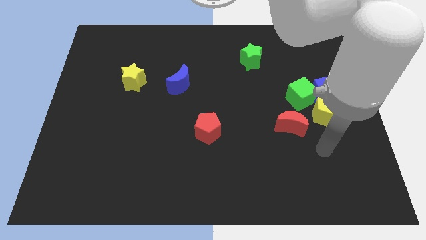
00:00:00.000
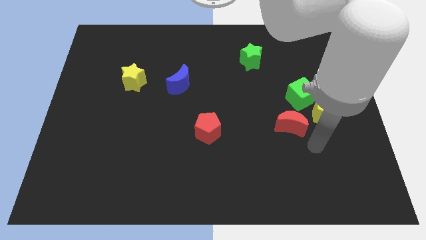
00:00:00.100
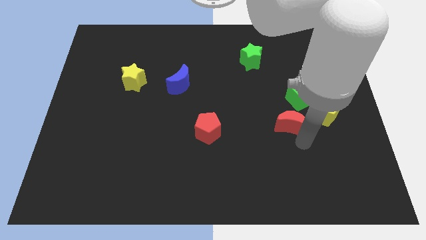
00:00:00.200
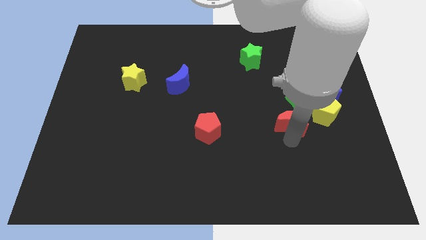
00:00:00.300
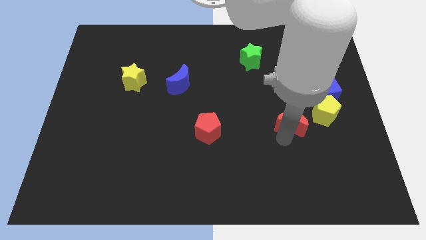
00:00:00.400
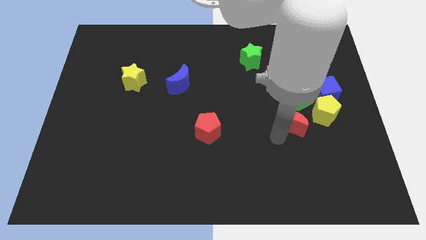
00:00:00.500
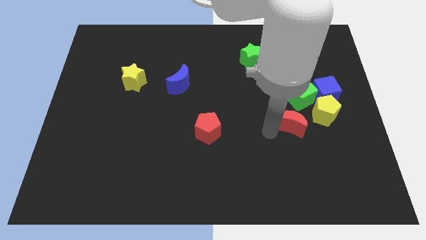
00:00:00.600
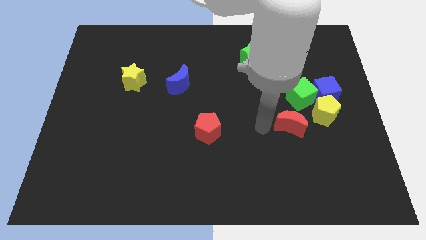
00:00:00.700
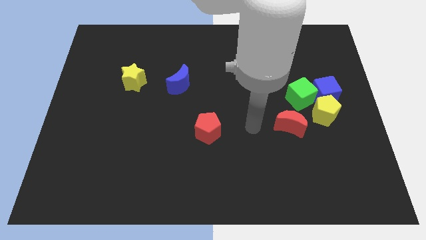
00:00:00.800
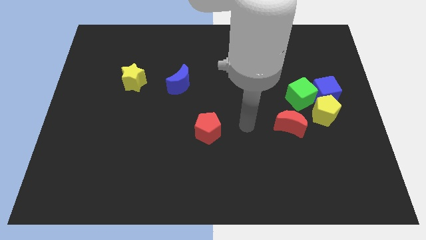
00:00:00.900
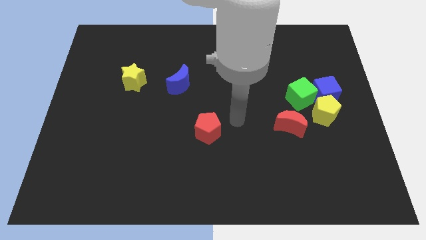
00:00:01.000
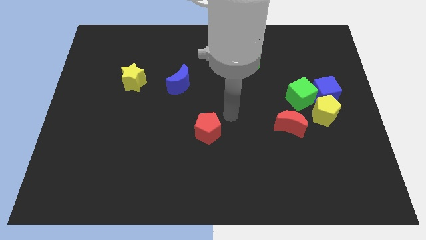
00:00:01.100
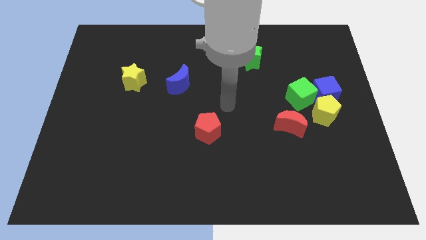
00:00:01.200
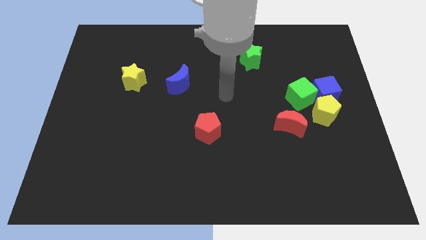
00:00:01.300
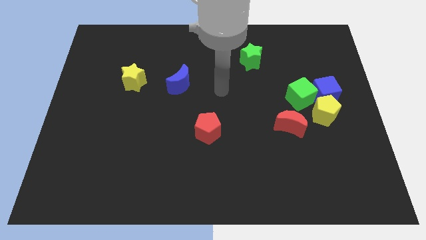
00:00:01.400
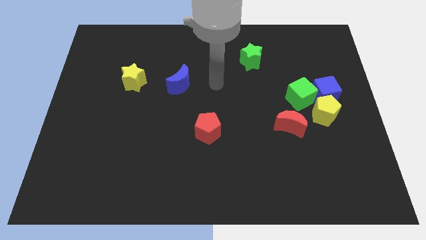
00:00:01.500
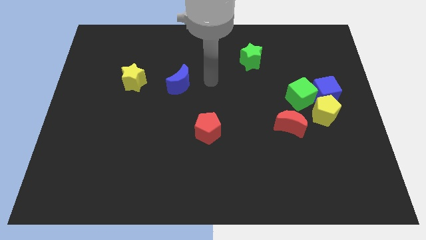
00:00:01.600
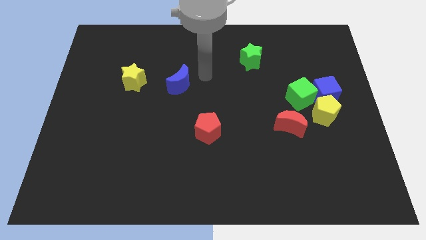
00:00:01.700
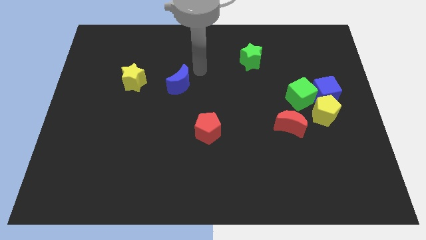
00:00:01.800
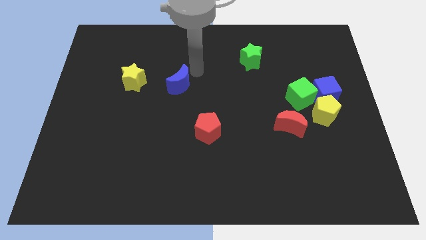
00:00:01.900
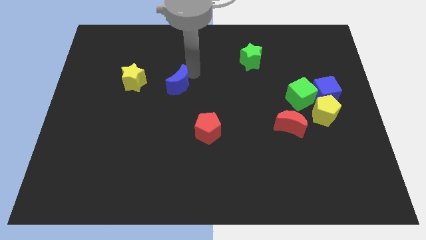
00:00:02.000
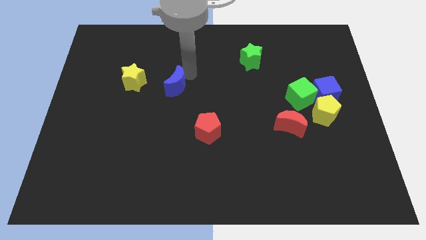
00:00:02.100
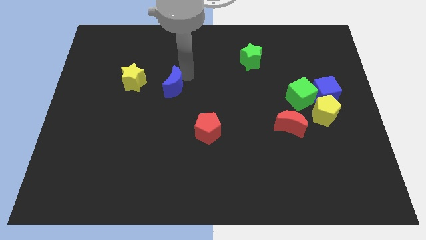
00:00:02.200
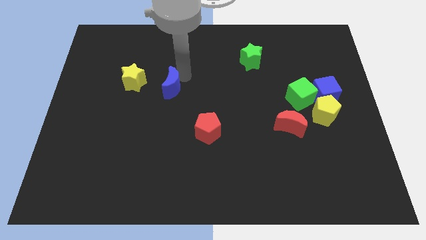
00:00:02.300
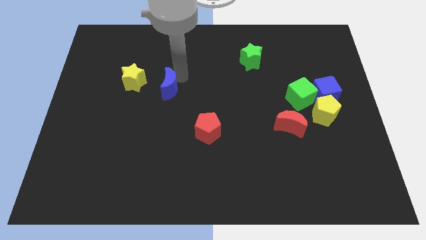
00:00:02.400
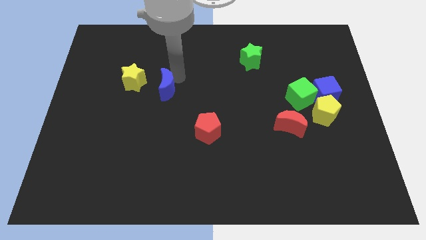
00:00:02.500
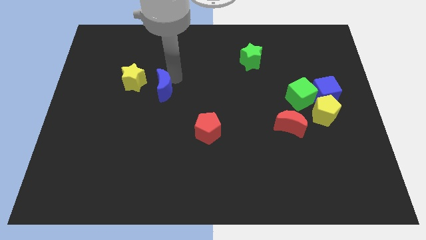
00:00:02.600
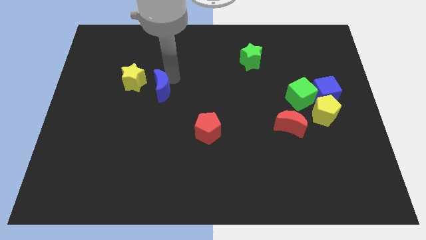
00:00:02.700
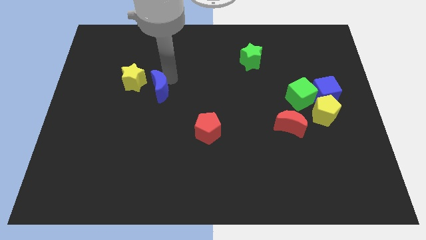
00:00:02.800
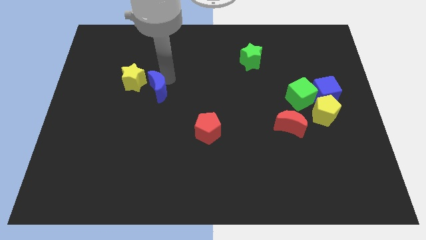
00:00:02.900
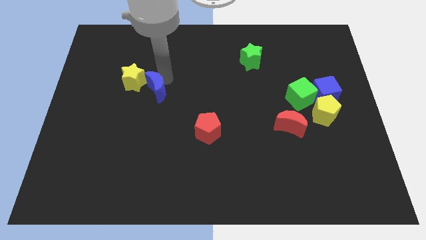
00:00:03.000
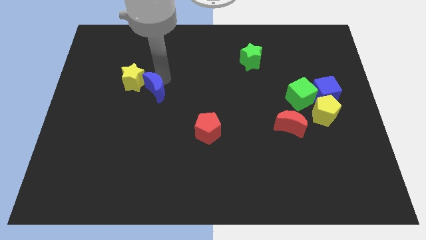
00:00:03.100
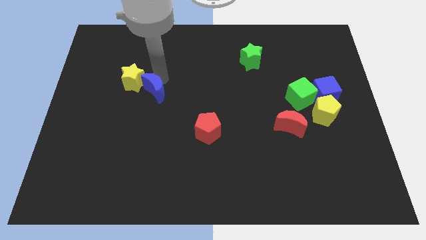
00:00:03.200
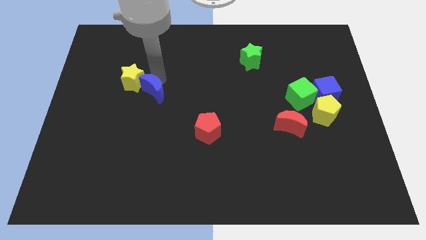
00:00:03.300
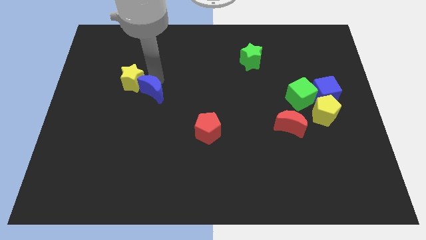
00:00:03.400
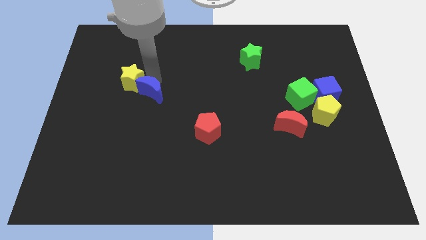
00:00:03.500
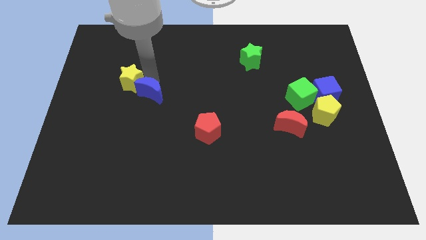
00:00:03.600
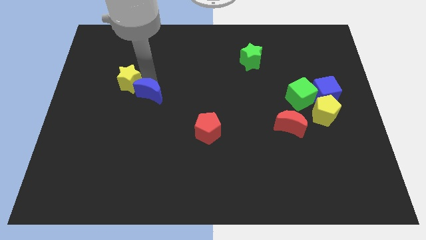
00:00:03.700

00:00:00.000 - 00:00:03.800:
slightly push the blue moon downwards and left

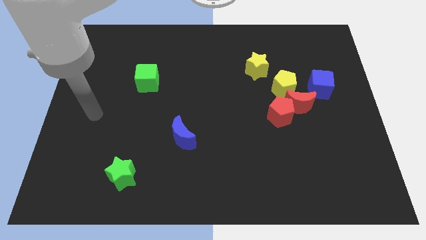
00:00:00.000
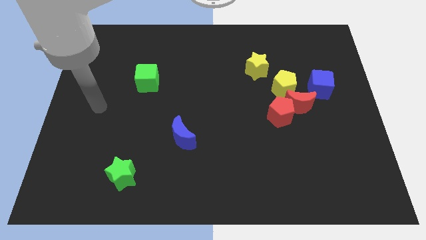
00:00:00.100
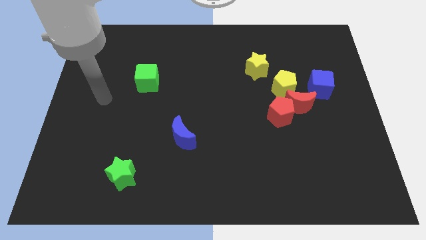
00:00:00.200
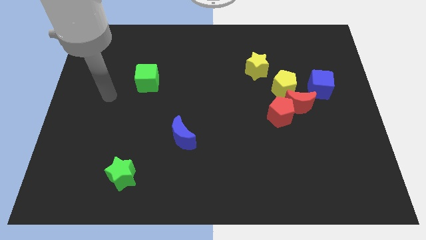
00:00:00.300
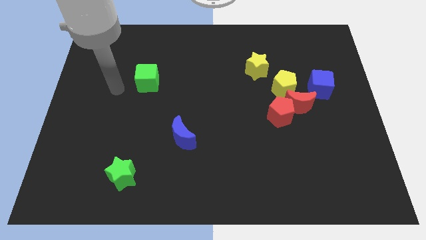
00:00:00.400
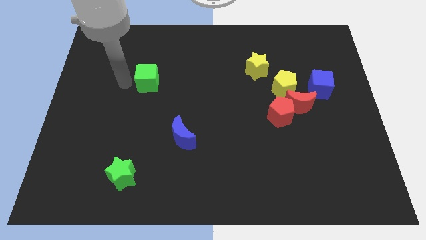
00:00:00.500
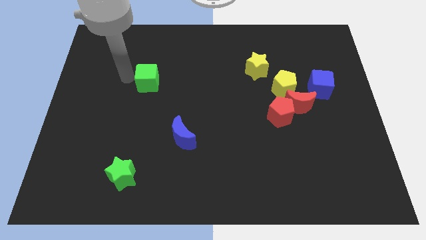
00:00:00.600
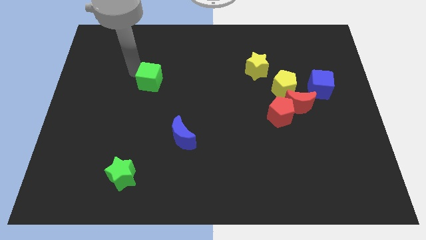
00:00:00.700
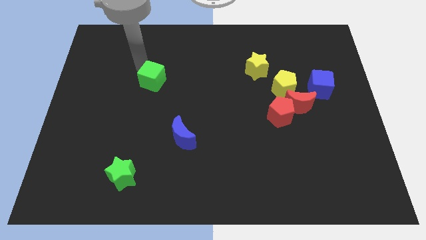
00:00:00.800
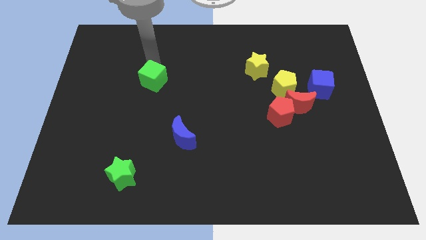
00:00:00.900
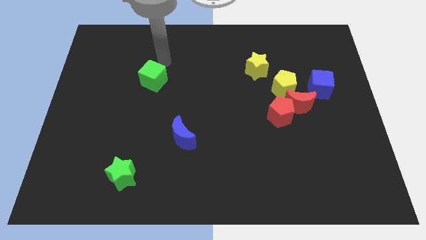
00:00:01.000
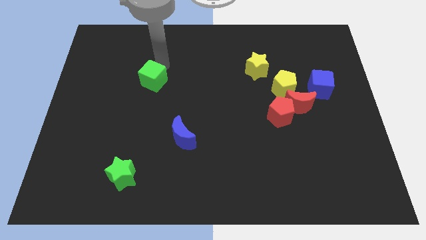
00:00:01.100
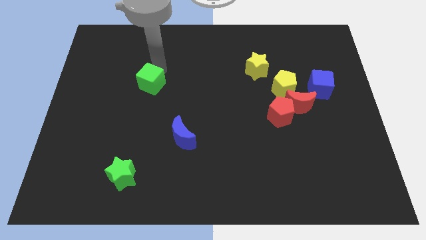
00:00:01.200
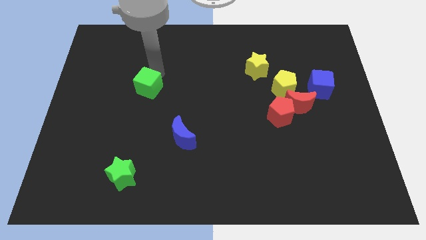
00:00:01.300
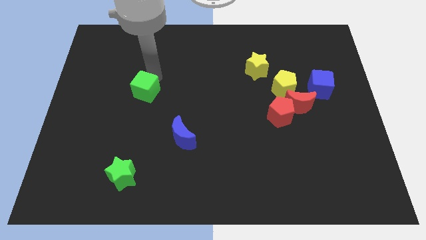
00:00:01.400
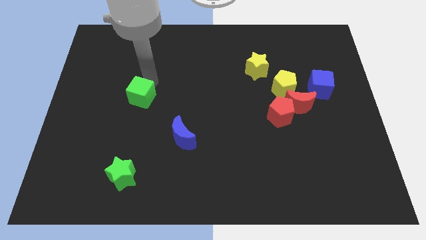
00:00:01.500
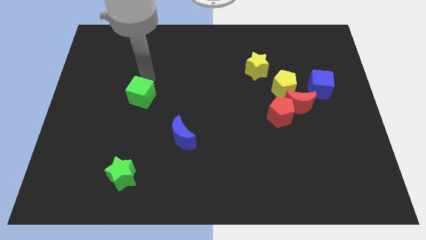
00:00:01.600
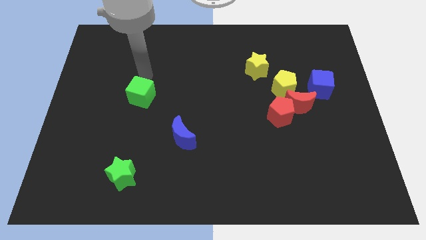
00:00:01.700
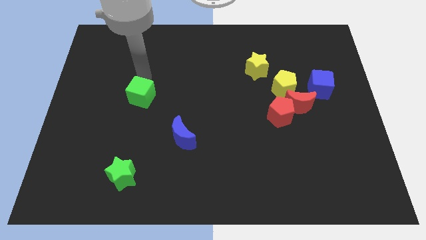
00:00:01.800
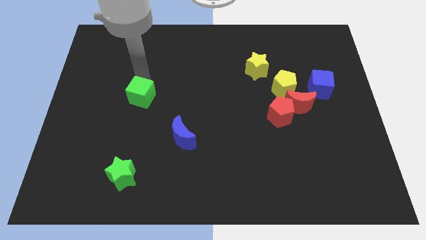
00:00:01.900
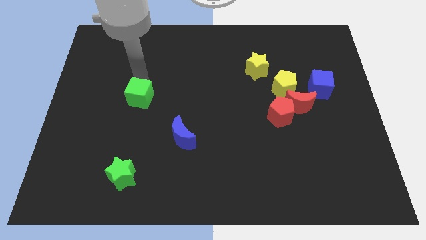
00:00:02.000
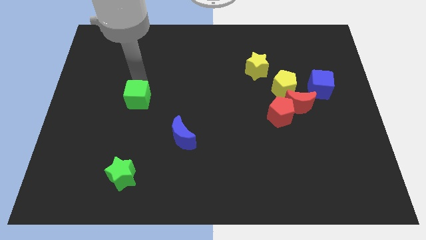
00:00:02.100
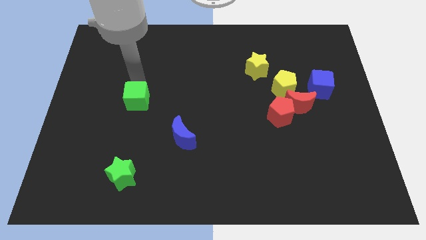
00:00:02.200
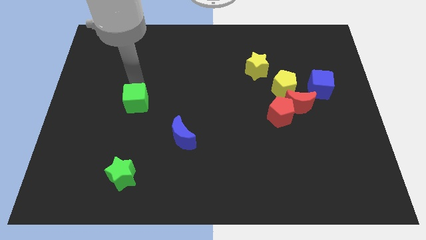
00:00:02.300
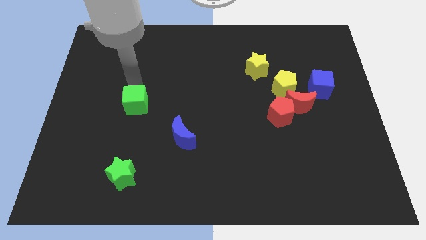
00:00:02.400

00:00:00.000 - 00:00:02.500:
push the green cube downwards a bit

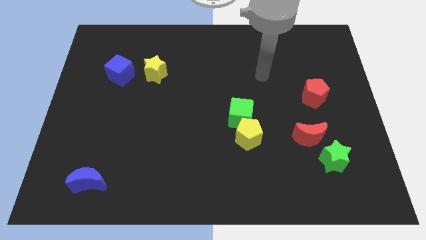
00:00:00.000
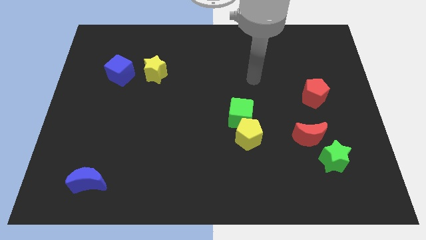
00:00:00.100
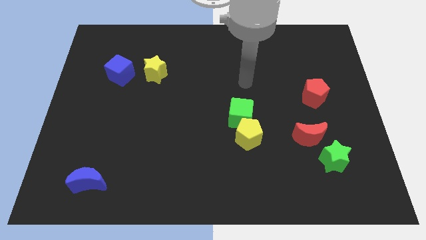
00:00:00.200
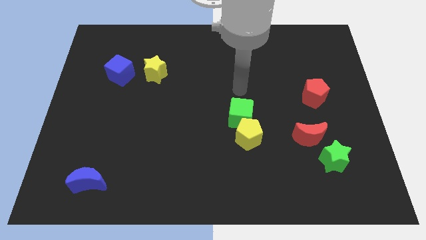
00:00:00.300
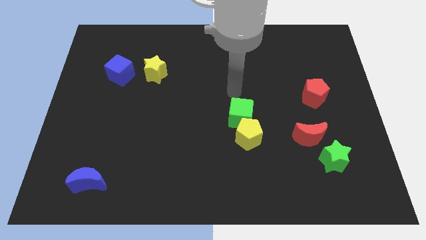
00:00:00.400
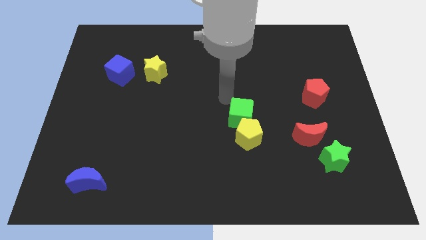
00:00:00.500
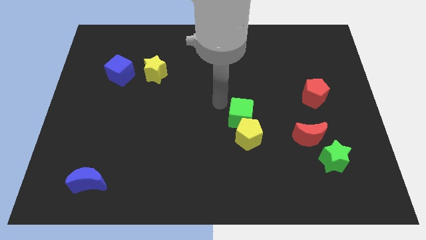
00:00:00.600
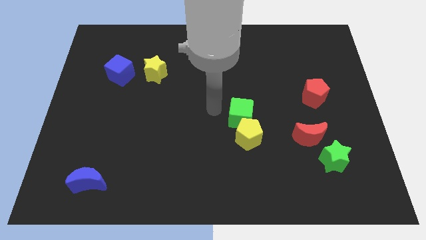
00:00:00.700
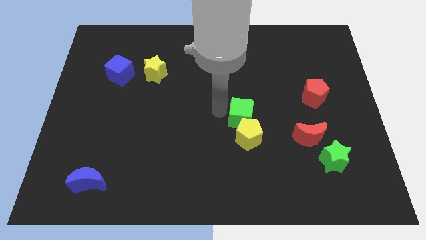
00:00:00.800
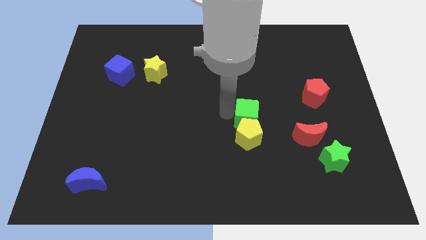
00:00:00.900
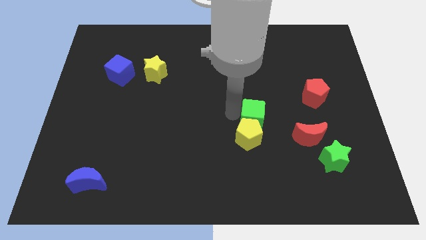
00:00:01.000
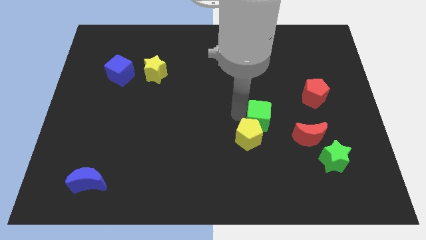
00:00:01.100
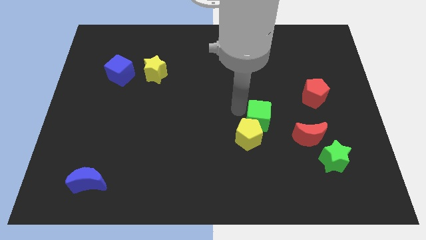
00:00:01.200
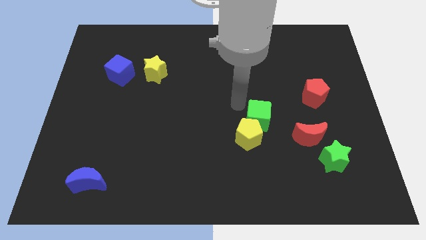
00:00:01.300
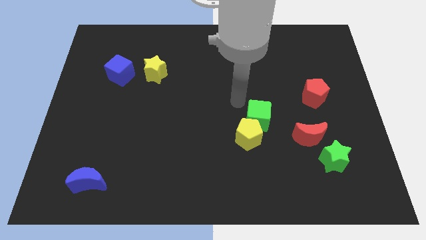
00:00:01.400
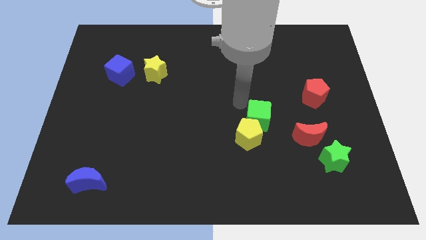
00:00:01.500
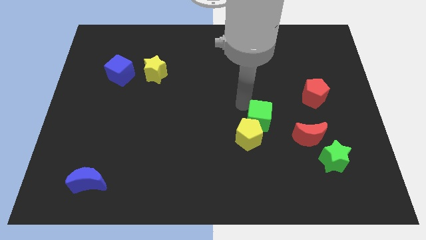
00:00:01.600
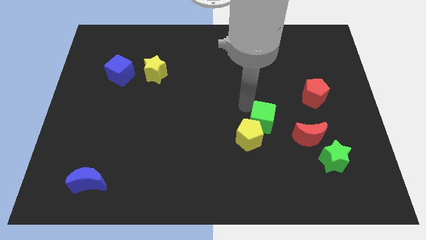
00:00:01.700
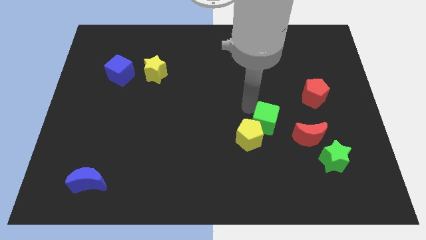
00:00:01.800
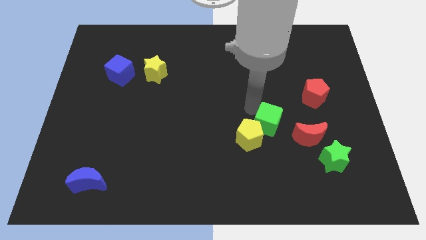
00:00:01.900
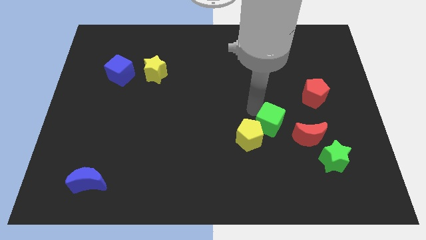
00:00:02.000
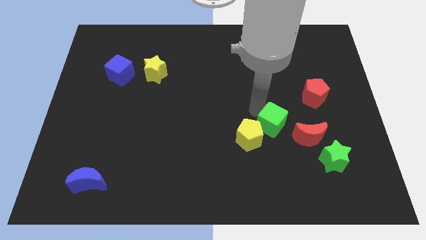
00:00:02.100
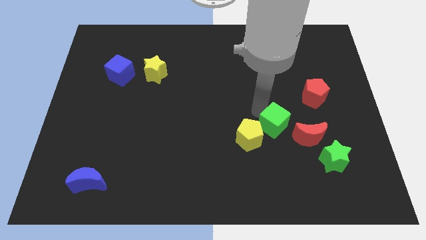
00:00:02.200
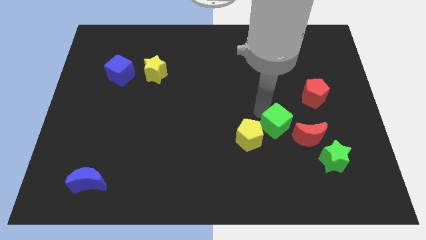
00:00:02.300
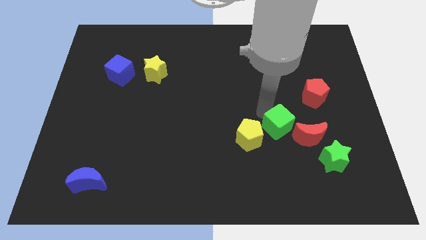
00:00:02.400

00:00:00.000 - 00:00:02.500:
move the green cube slightly down and right
